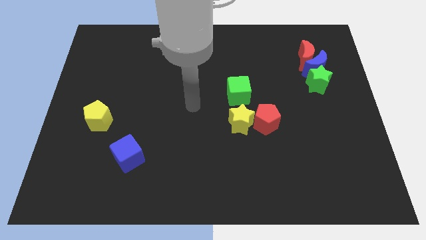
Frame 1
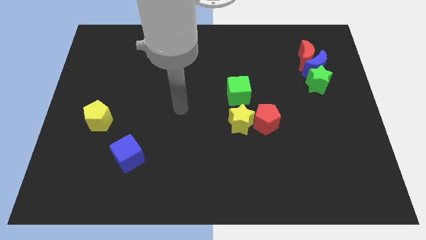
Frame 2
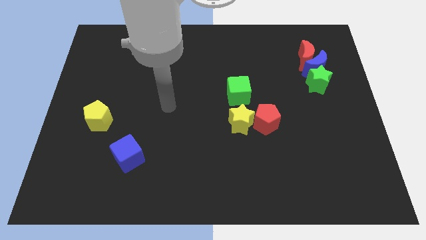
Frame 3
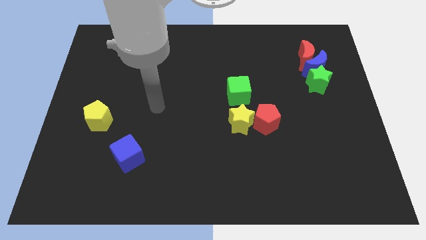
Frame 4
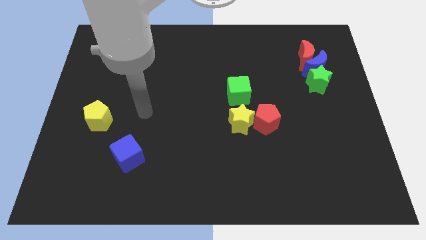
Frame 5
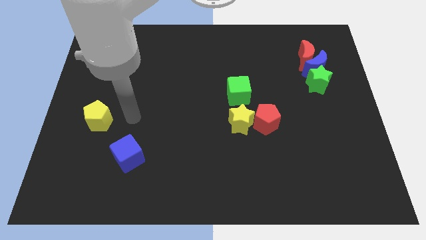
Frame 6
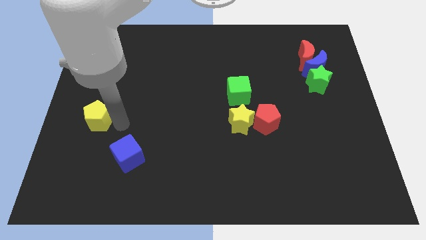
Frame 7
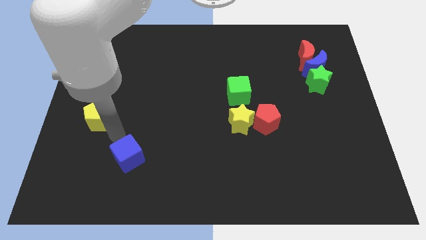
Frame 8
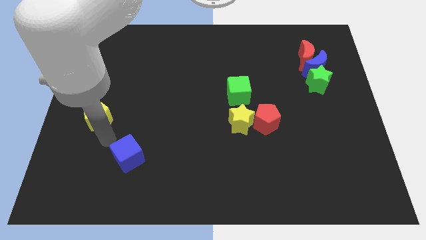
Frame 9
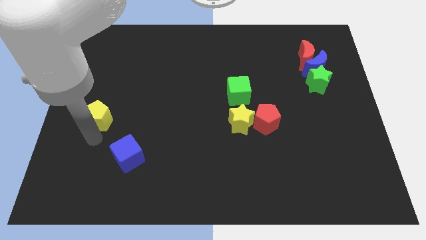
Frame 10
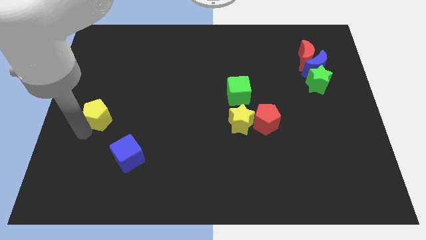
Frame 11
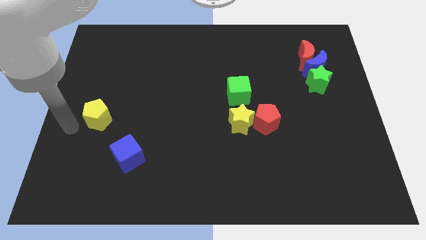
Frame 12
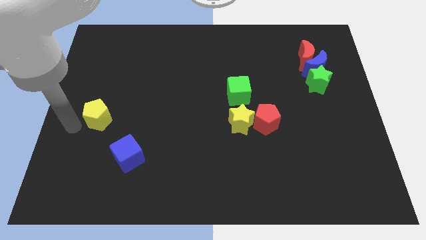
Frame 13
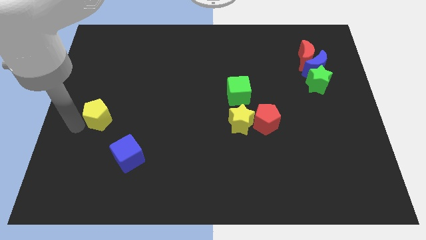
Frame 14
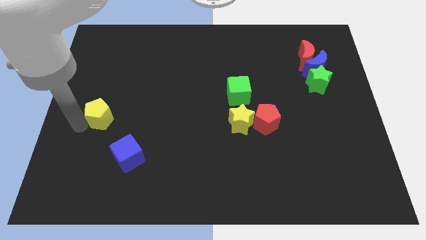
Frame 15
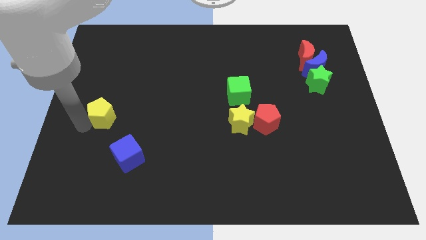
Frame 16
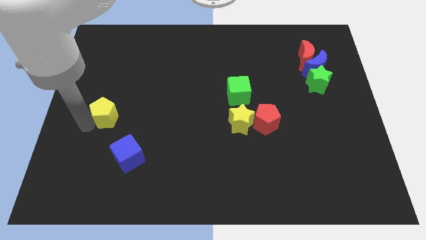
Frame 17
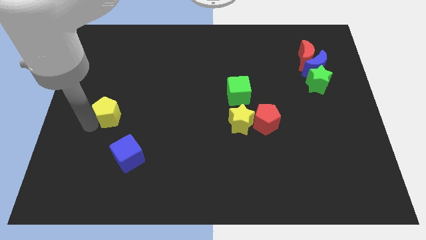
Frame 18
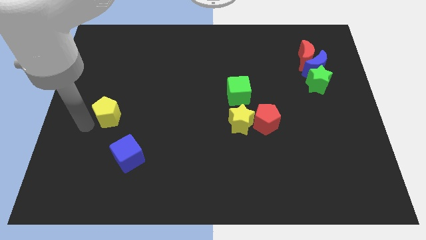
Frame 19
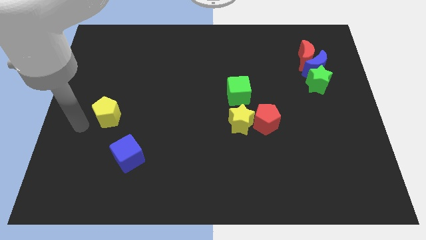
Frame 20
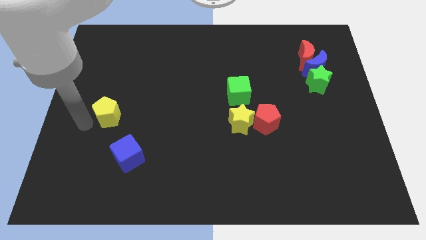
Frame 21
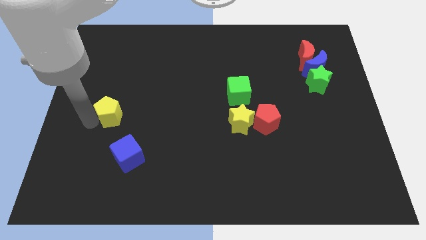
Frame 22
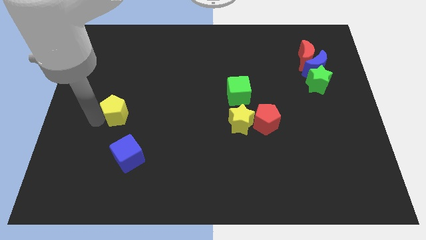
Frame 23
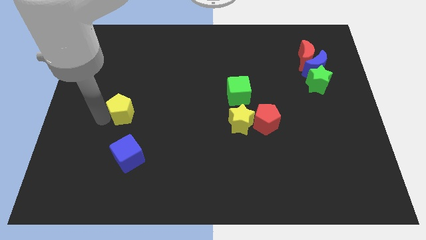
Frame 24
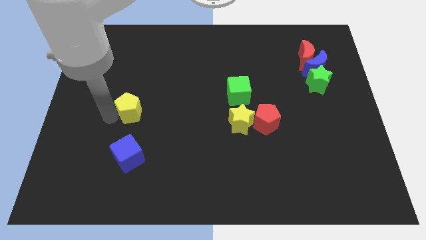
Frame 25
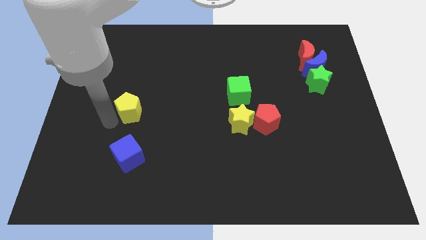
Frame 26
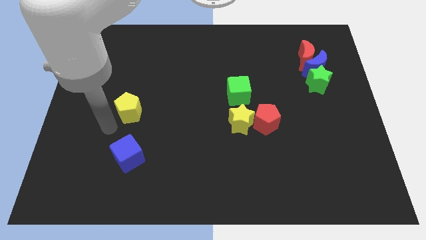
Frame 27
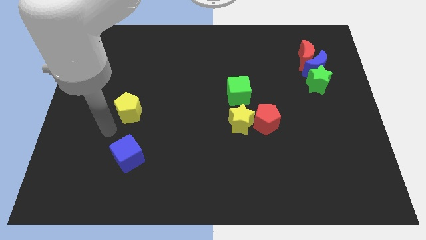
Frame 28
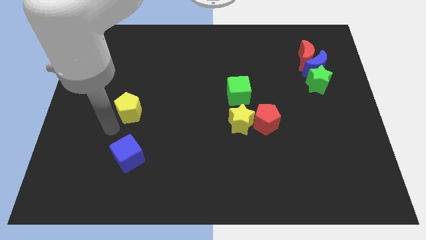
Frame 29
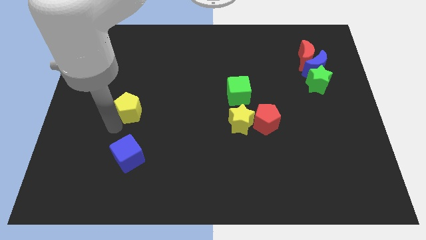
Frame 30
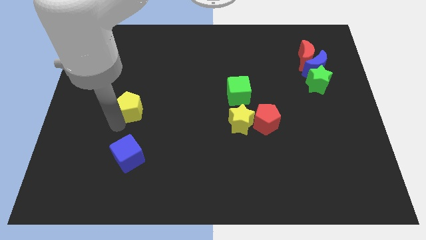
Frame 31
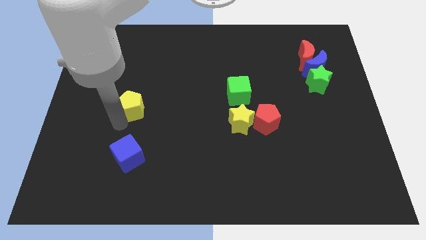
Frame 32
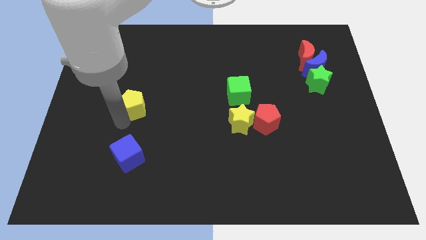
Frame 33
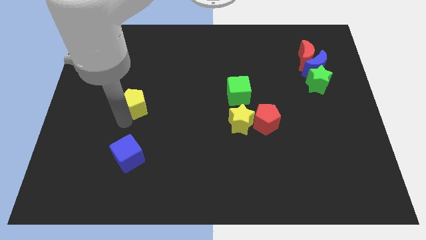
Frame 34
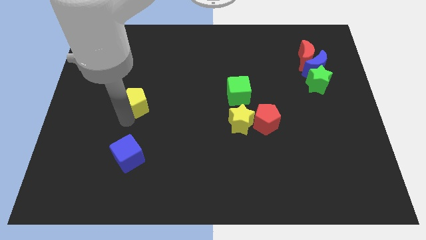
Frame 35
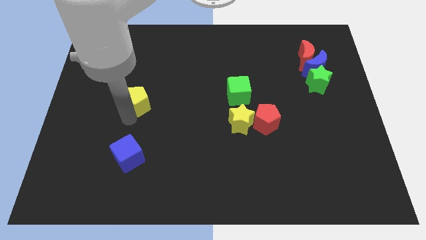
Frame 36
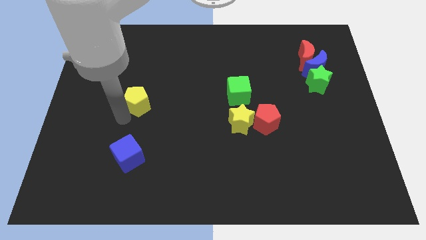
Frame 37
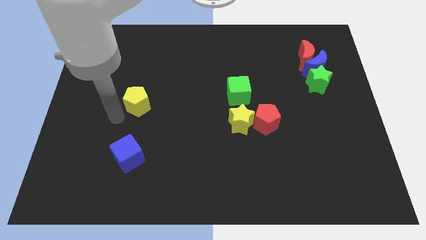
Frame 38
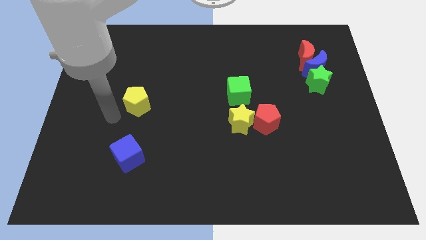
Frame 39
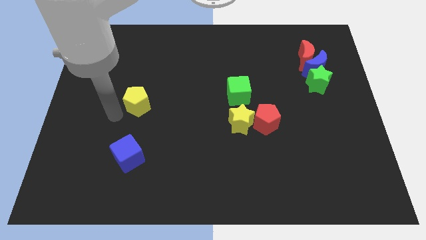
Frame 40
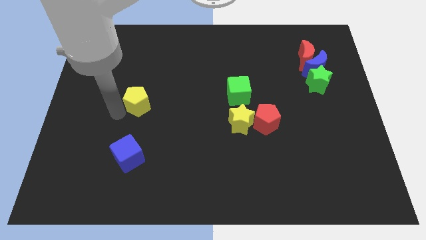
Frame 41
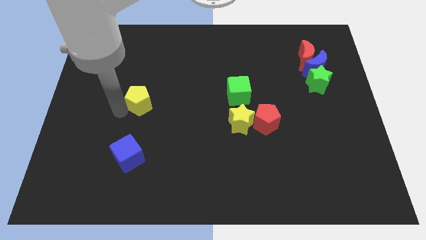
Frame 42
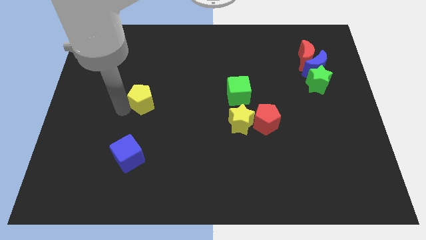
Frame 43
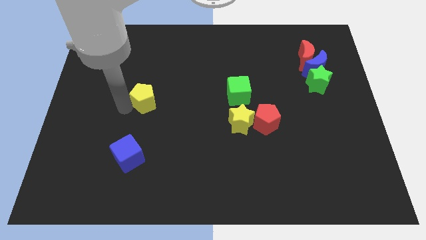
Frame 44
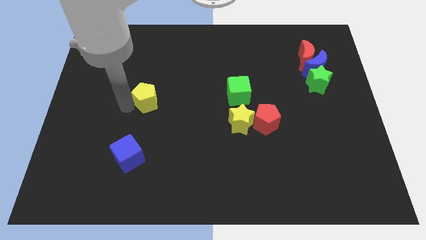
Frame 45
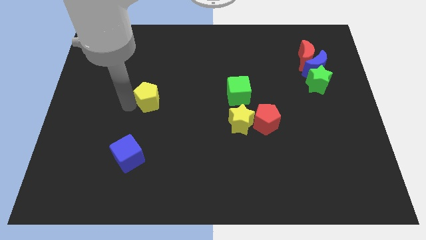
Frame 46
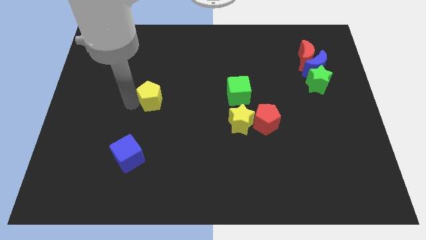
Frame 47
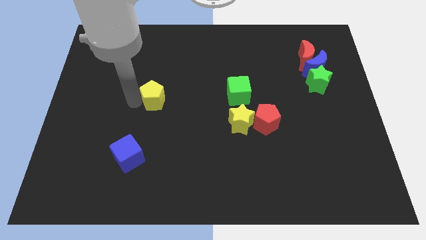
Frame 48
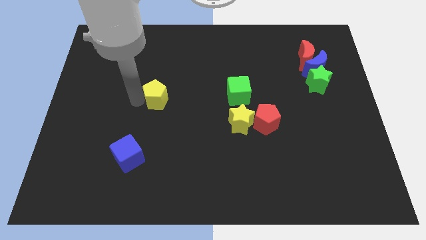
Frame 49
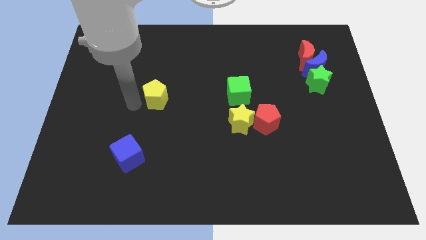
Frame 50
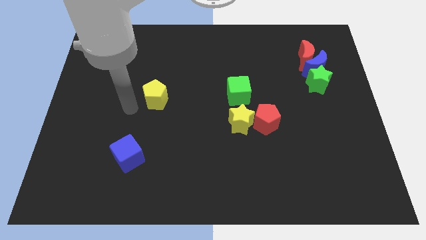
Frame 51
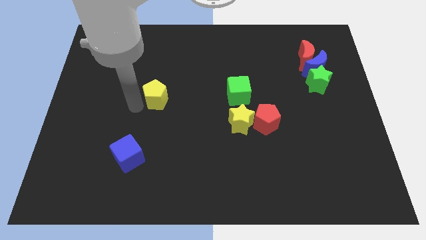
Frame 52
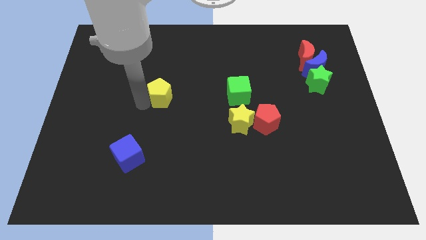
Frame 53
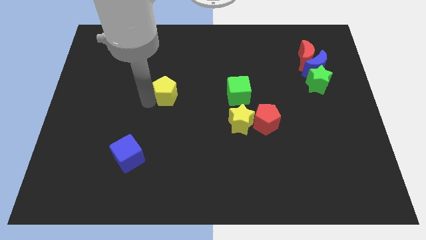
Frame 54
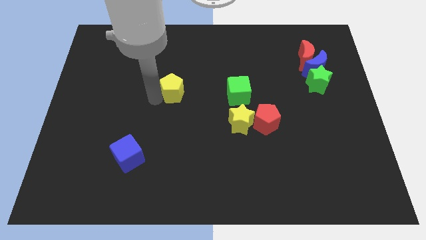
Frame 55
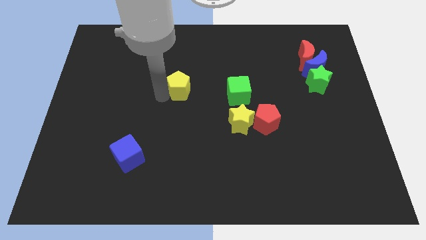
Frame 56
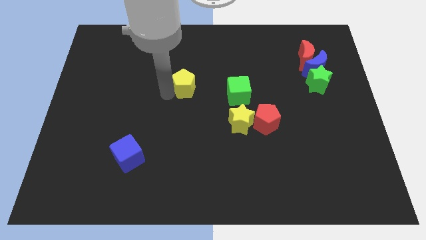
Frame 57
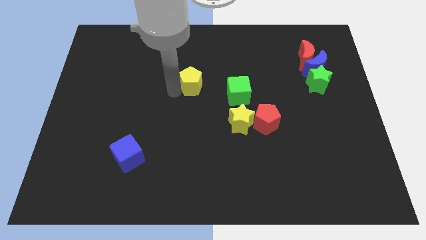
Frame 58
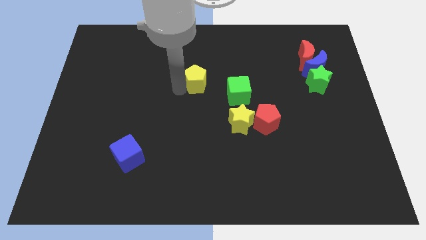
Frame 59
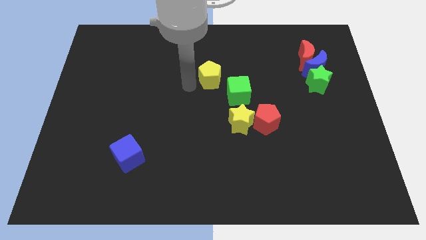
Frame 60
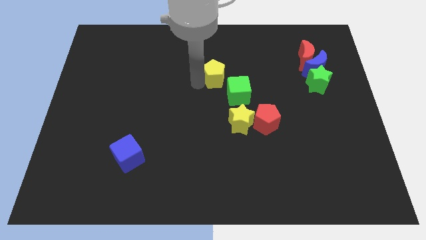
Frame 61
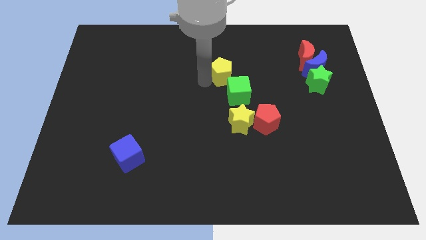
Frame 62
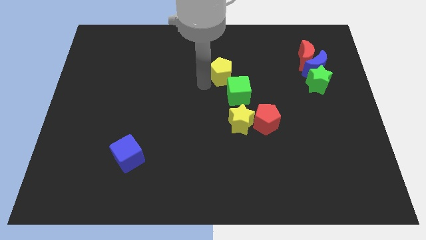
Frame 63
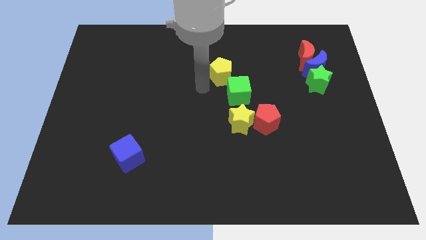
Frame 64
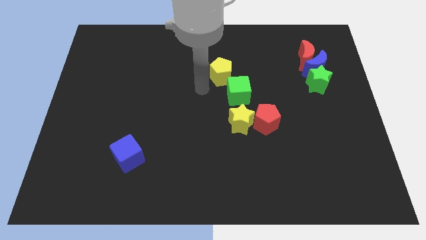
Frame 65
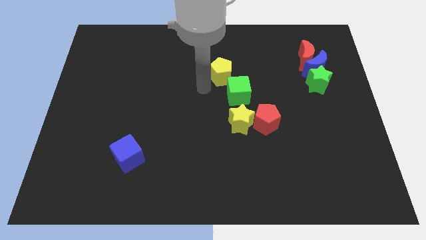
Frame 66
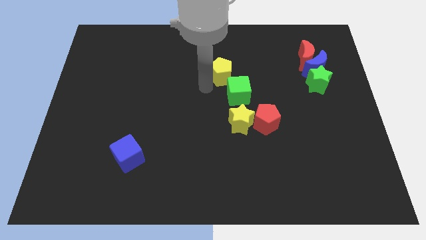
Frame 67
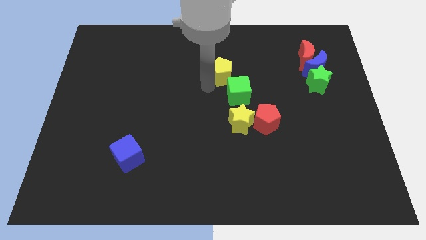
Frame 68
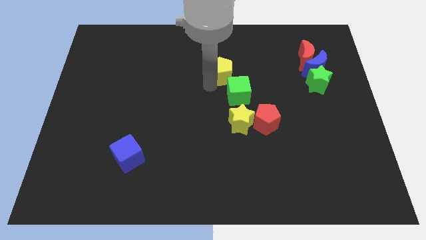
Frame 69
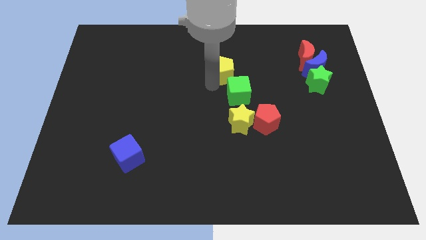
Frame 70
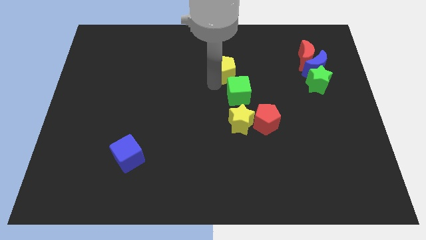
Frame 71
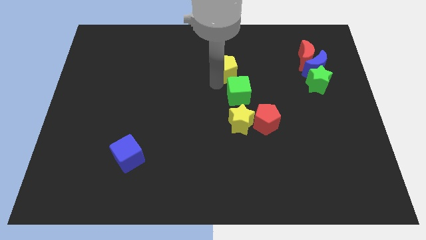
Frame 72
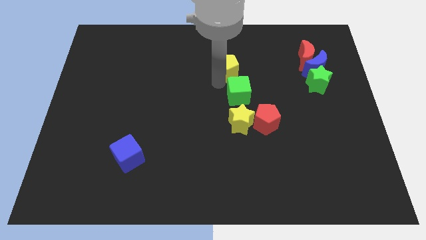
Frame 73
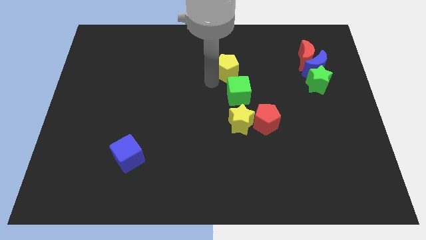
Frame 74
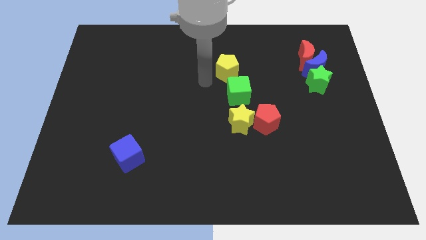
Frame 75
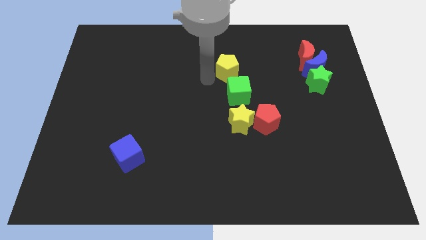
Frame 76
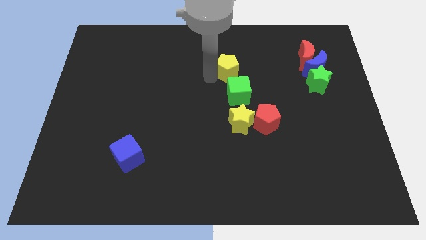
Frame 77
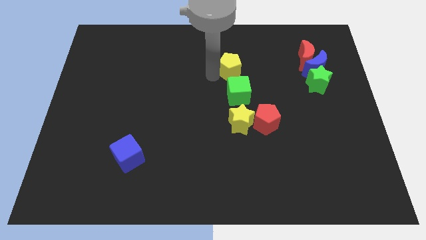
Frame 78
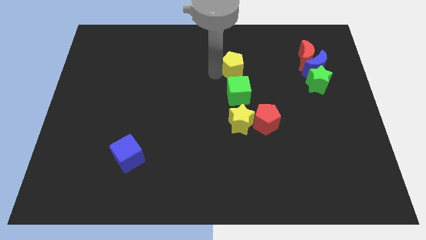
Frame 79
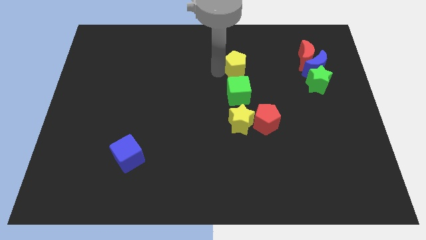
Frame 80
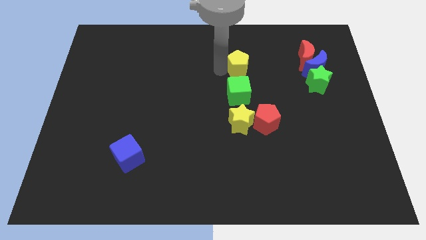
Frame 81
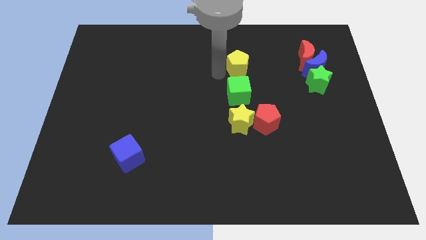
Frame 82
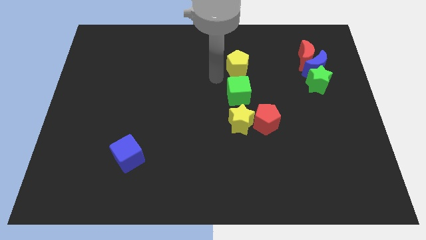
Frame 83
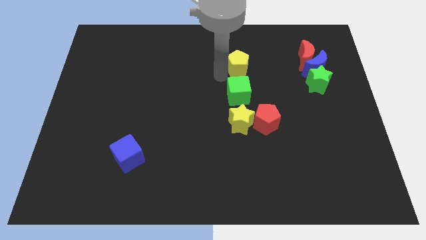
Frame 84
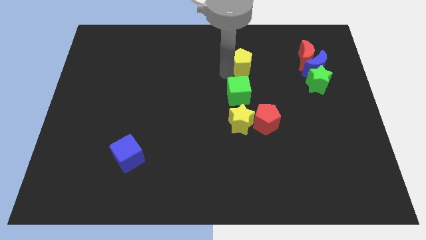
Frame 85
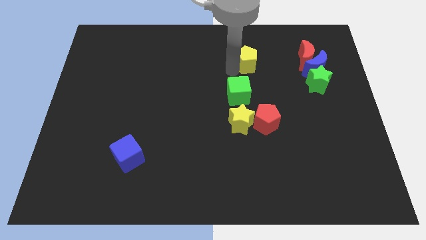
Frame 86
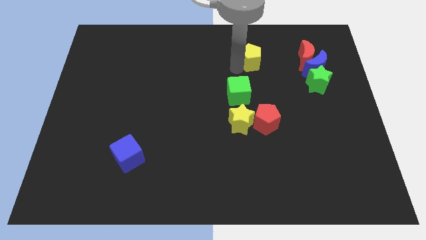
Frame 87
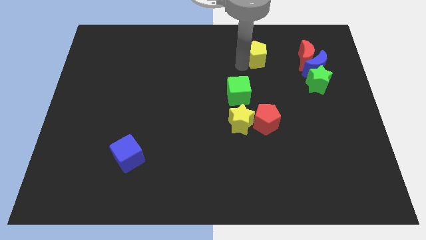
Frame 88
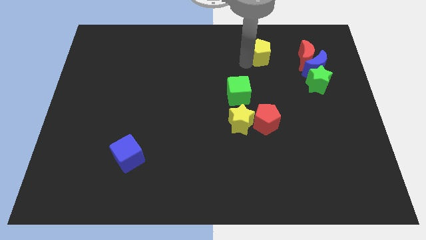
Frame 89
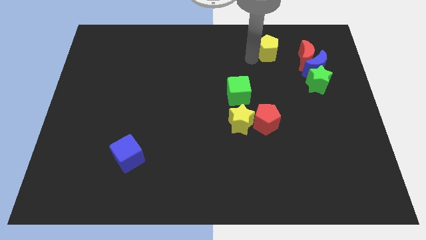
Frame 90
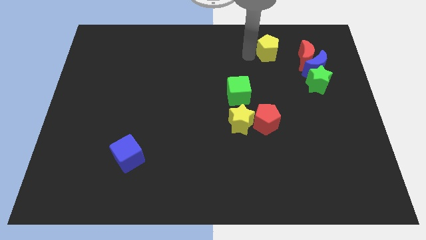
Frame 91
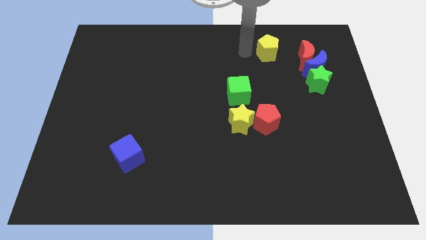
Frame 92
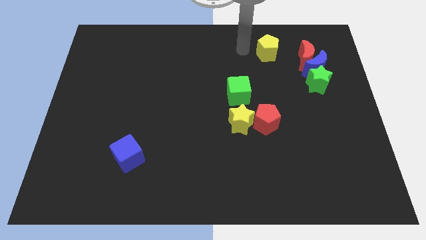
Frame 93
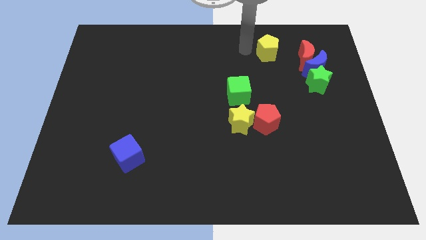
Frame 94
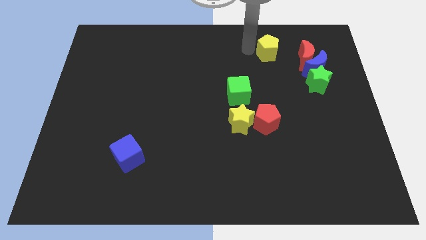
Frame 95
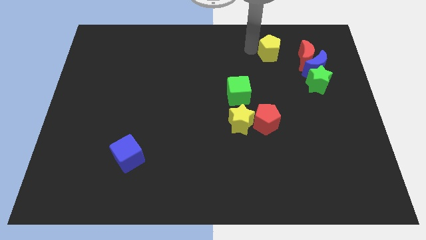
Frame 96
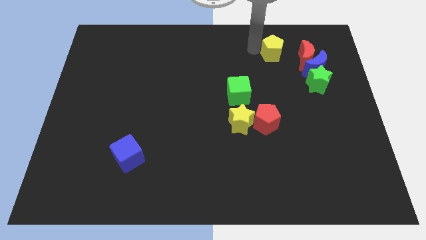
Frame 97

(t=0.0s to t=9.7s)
push the yellow pentagon to the top left of the blue moon
